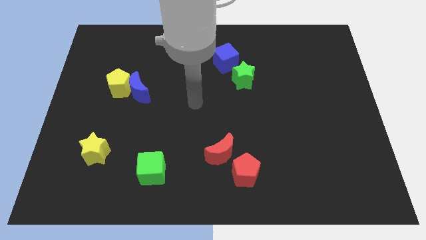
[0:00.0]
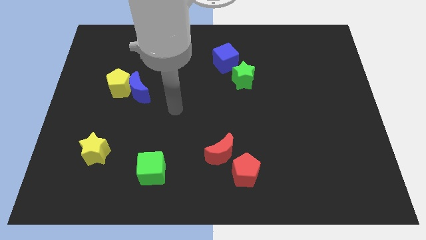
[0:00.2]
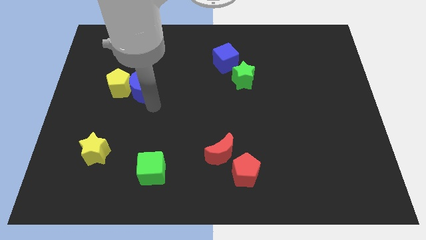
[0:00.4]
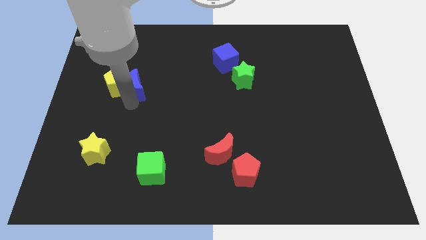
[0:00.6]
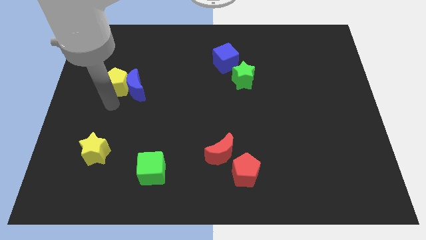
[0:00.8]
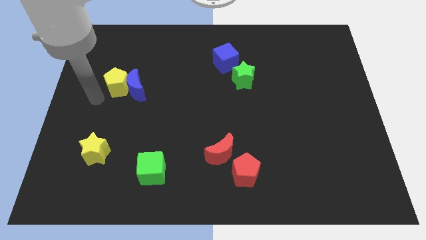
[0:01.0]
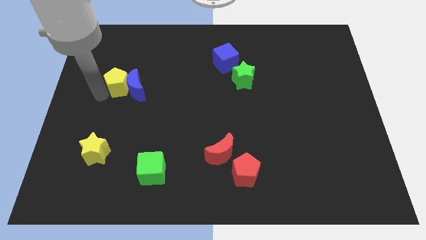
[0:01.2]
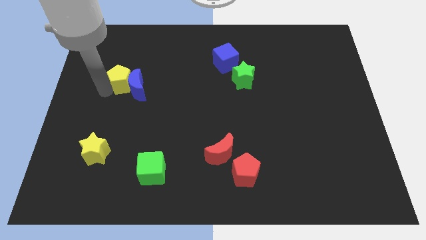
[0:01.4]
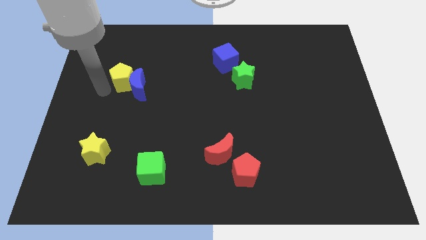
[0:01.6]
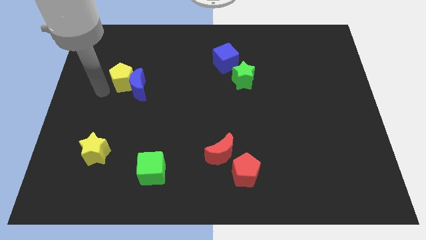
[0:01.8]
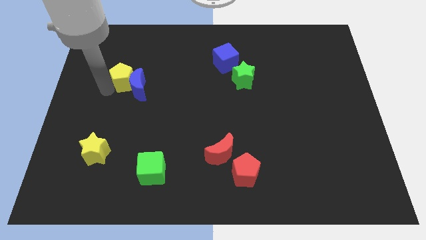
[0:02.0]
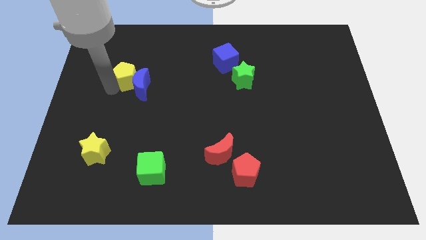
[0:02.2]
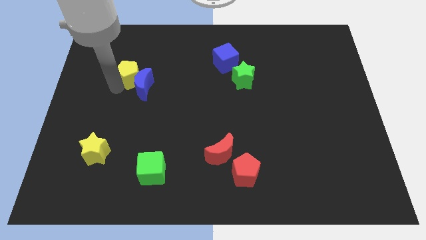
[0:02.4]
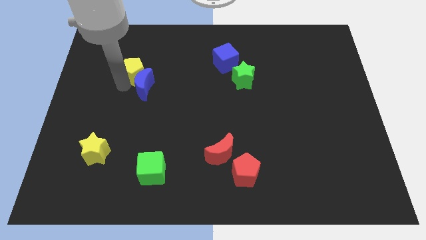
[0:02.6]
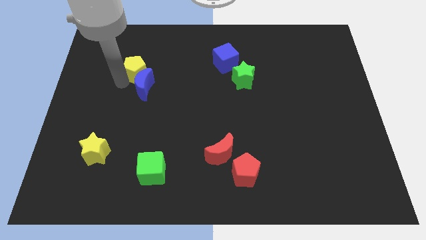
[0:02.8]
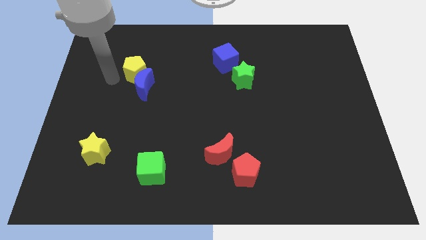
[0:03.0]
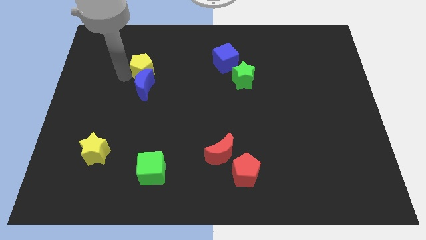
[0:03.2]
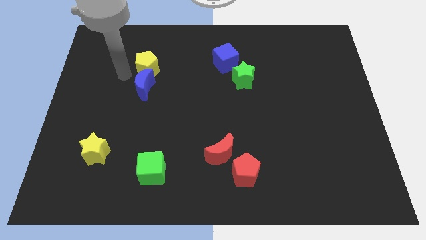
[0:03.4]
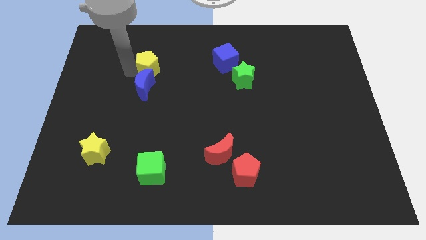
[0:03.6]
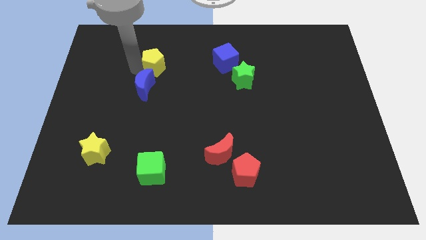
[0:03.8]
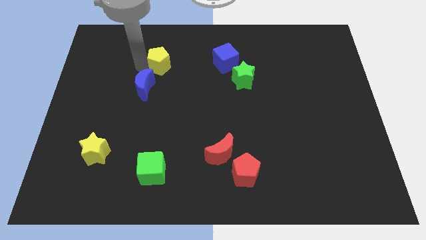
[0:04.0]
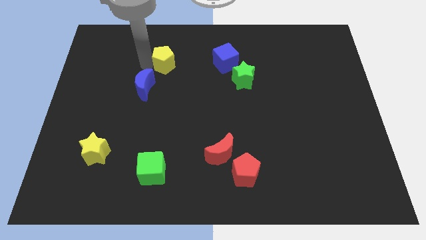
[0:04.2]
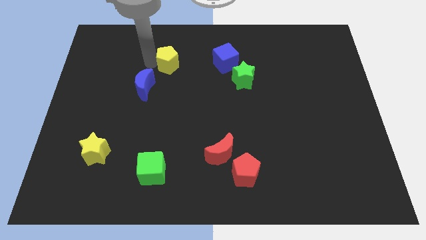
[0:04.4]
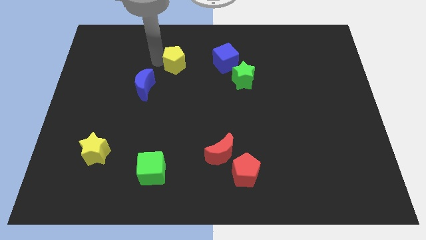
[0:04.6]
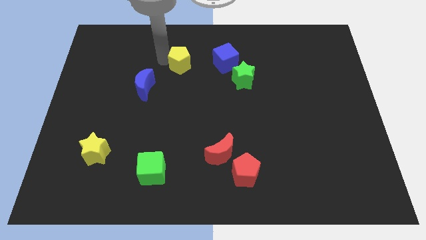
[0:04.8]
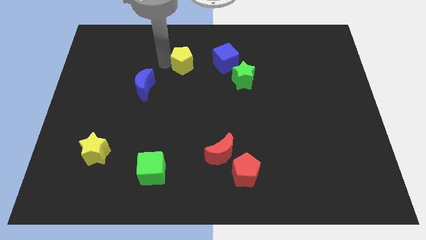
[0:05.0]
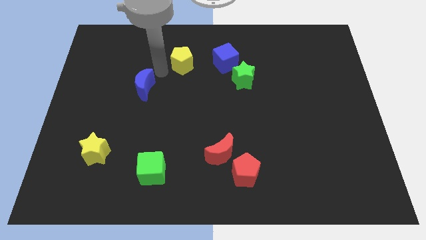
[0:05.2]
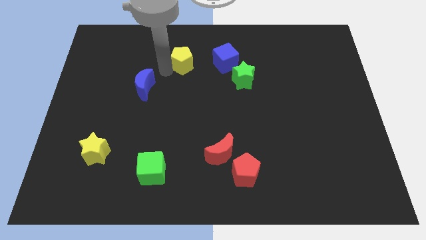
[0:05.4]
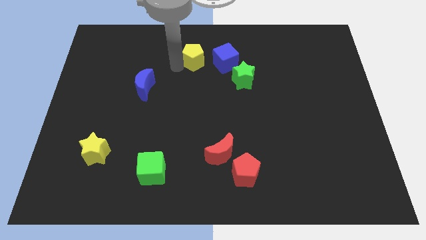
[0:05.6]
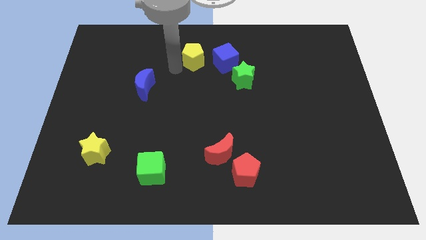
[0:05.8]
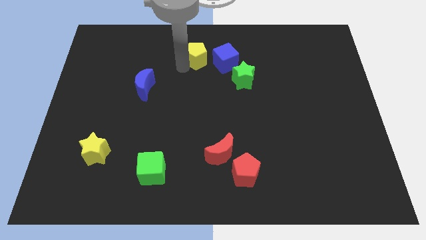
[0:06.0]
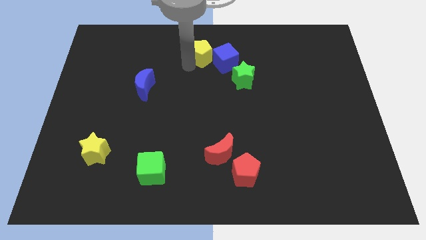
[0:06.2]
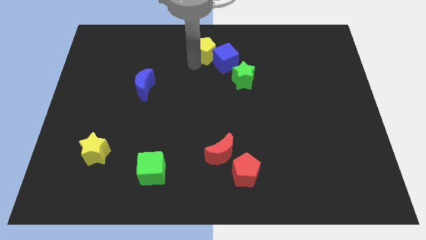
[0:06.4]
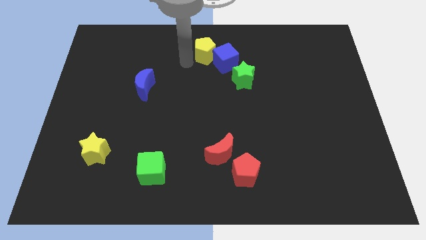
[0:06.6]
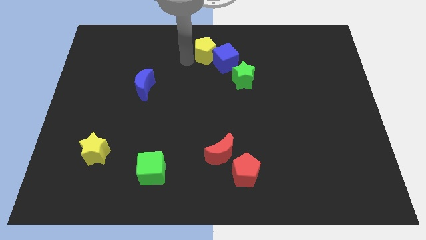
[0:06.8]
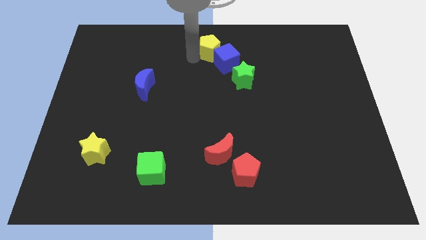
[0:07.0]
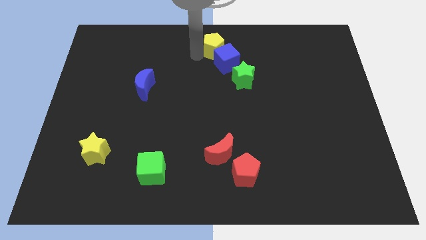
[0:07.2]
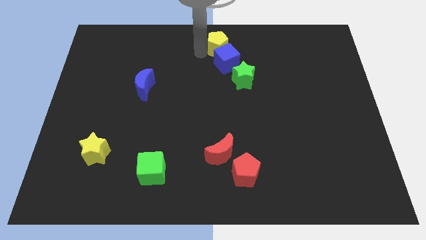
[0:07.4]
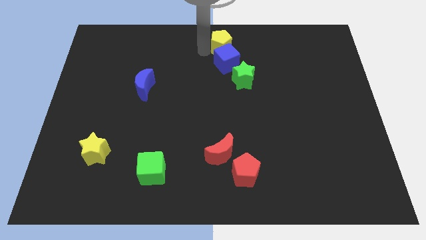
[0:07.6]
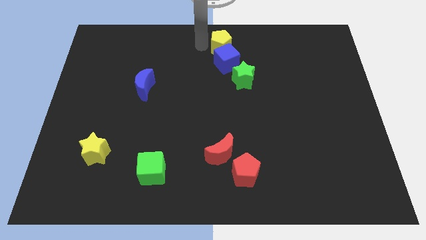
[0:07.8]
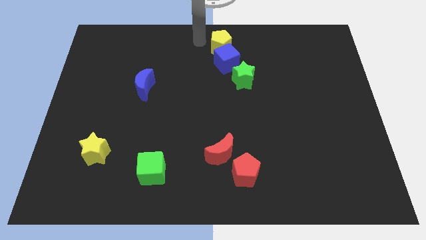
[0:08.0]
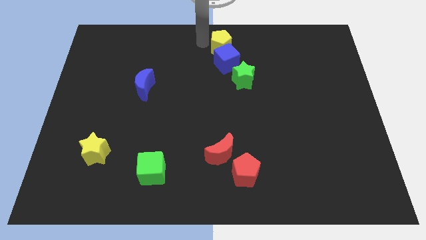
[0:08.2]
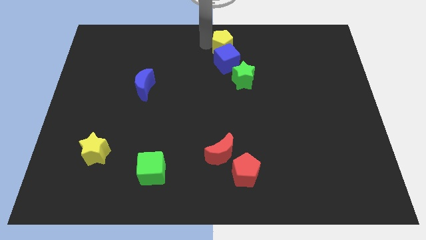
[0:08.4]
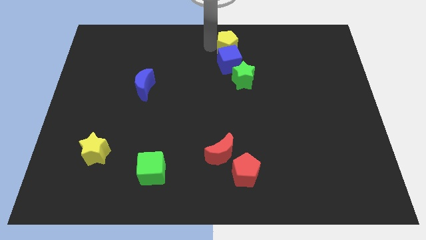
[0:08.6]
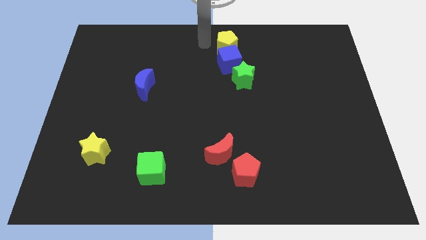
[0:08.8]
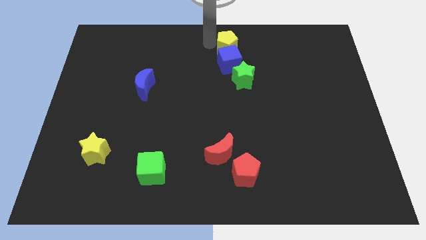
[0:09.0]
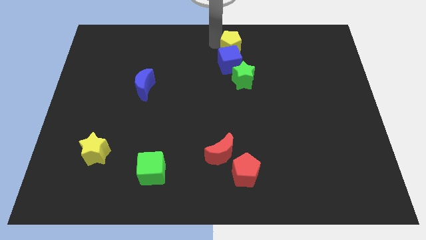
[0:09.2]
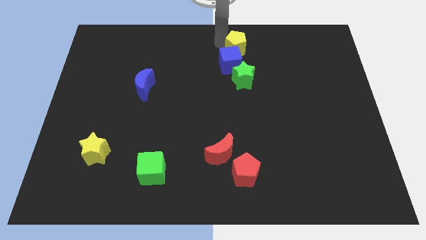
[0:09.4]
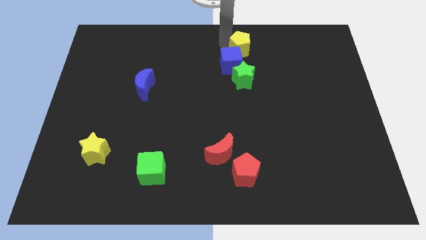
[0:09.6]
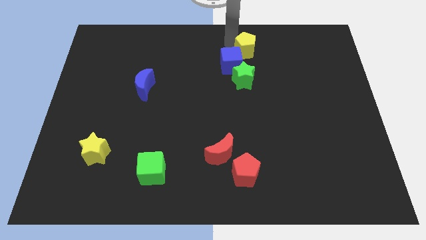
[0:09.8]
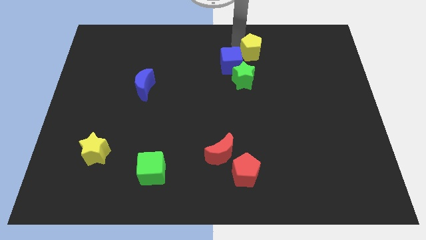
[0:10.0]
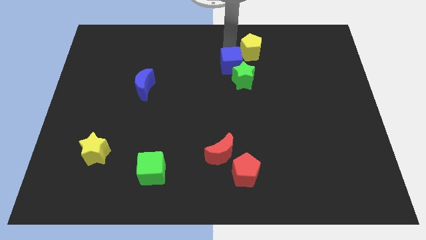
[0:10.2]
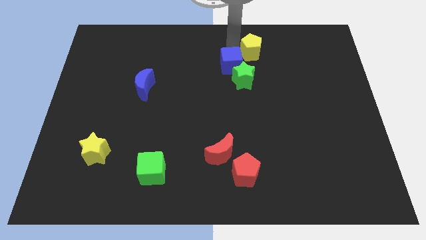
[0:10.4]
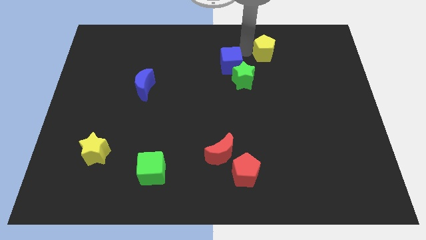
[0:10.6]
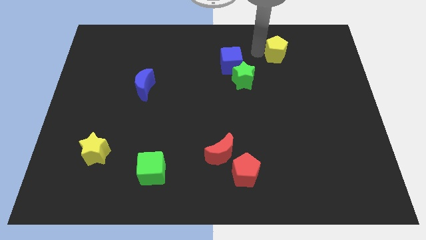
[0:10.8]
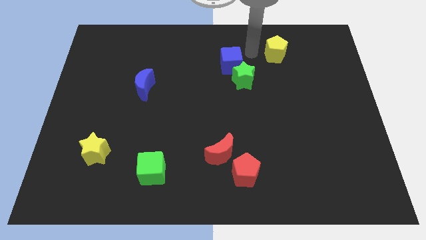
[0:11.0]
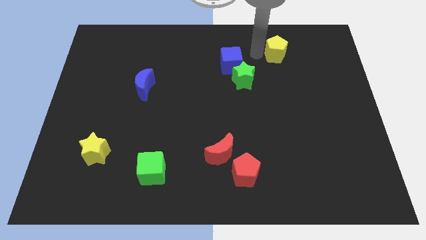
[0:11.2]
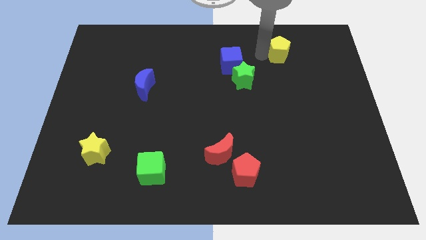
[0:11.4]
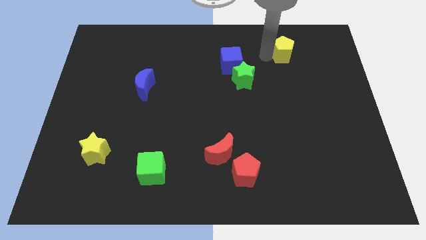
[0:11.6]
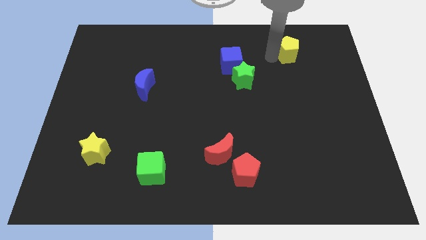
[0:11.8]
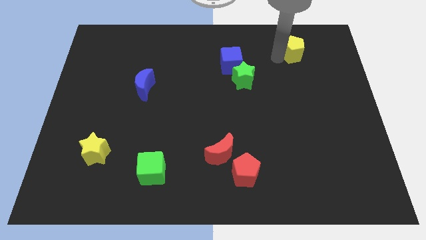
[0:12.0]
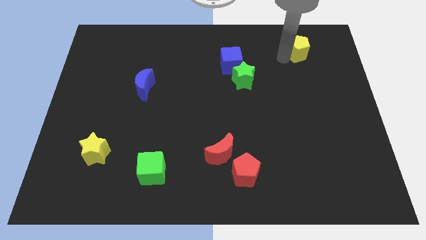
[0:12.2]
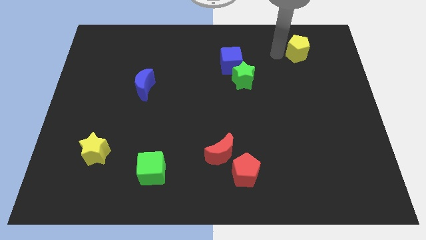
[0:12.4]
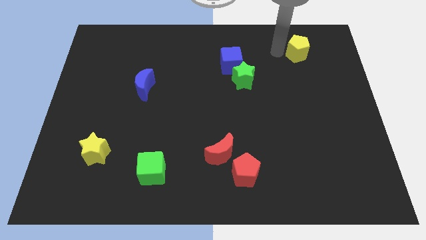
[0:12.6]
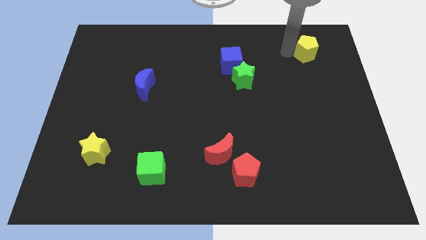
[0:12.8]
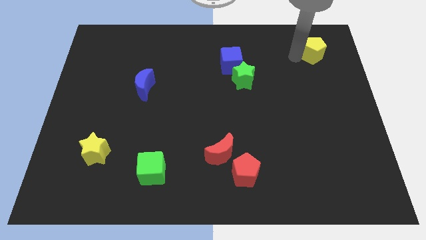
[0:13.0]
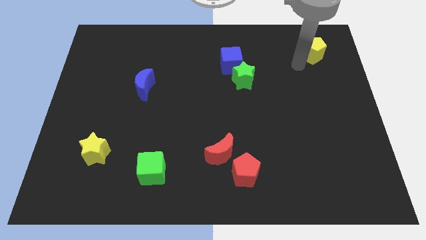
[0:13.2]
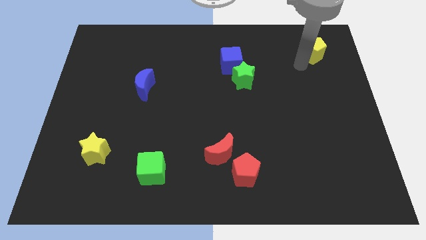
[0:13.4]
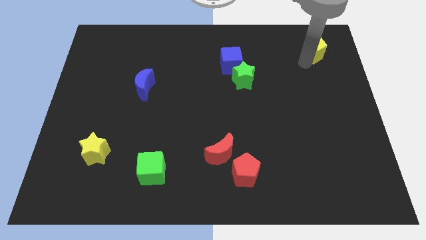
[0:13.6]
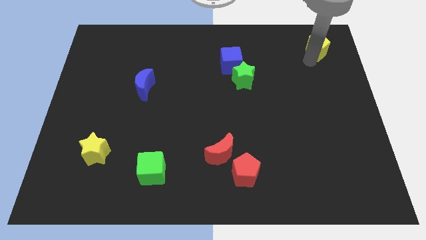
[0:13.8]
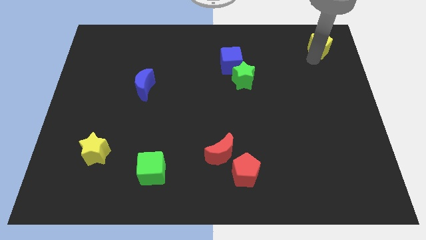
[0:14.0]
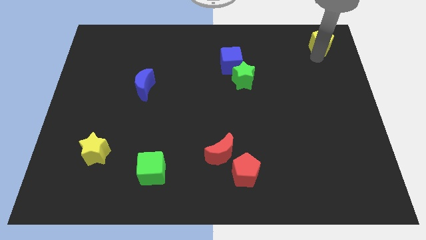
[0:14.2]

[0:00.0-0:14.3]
move the yellow pentagon to the top right corner
